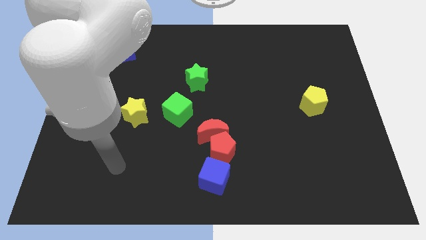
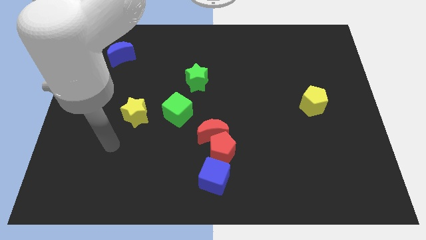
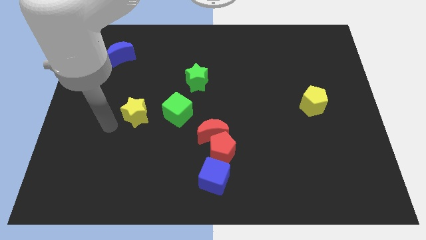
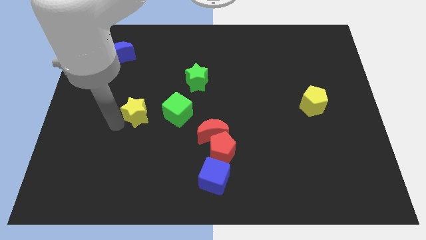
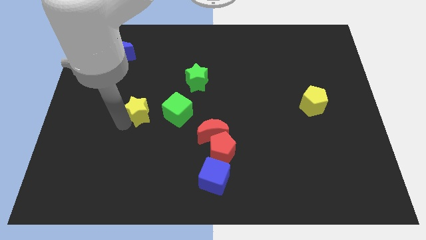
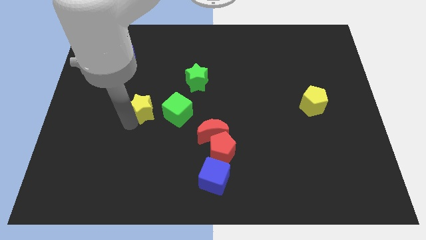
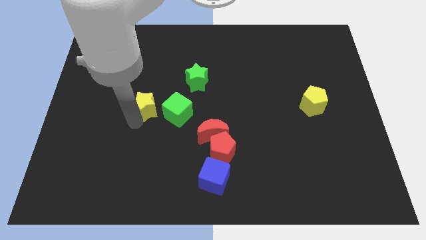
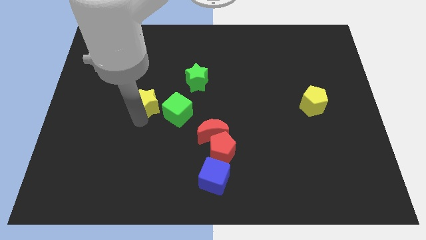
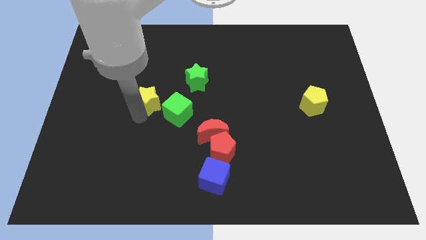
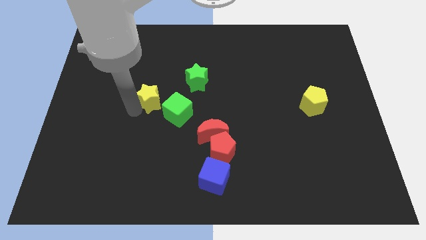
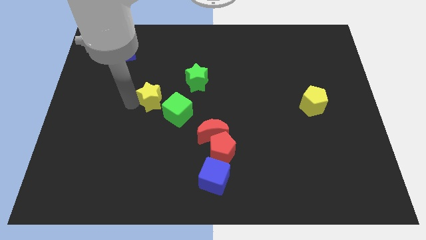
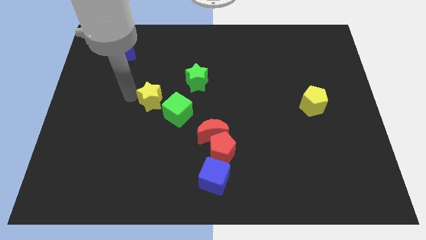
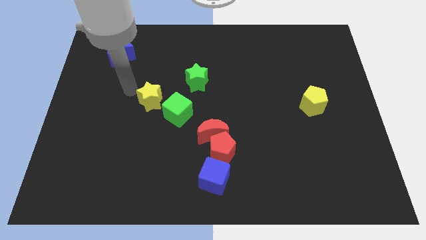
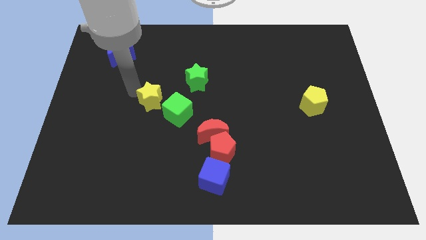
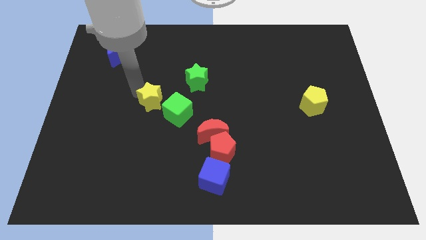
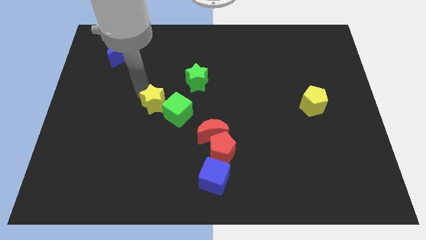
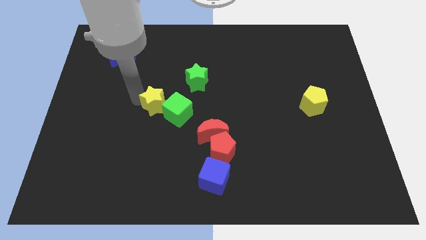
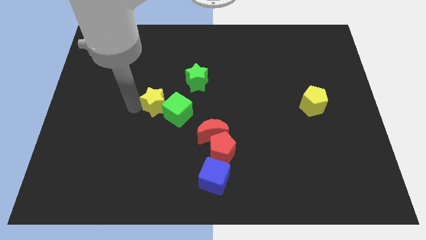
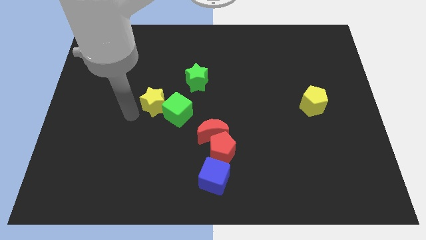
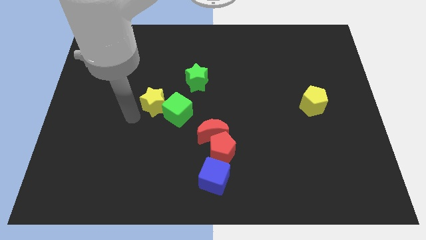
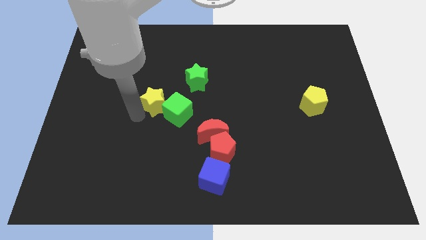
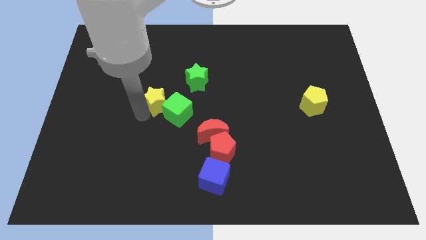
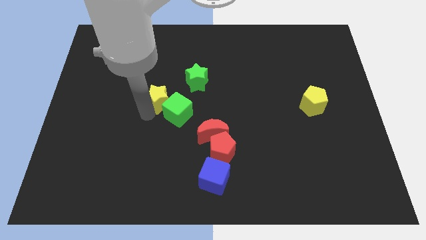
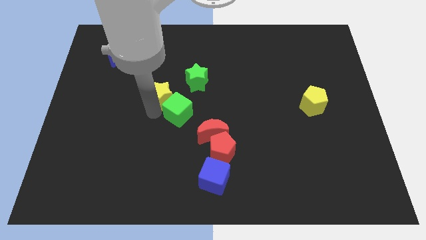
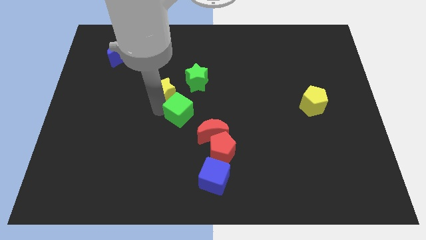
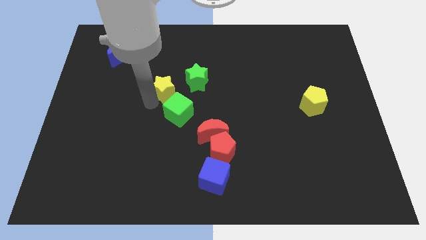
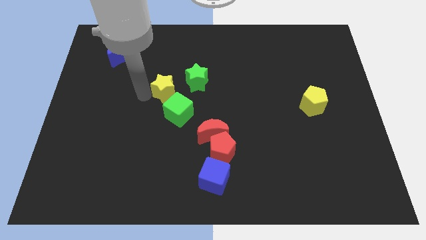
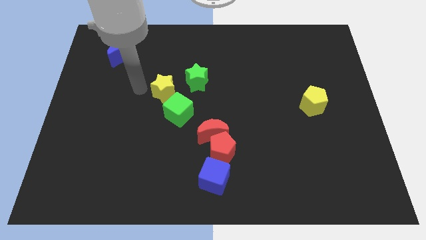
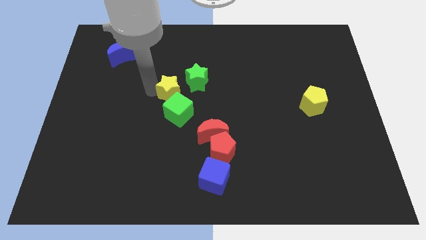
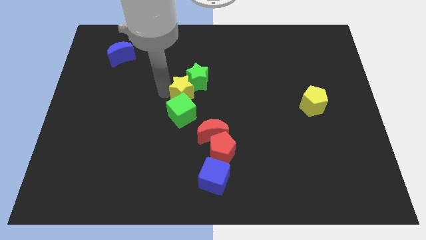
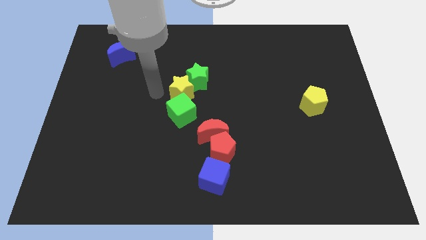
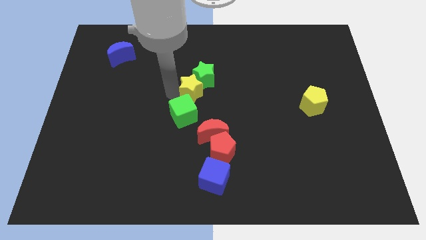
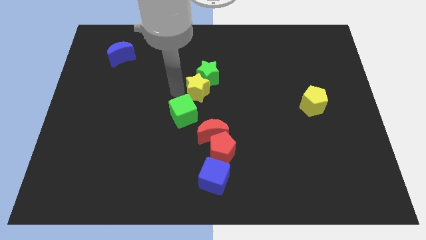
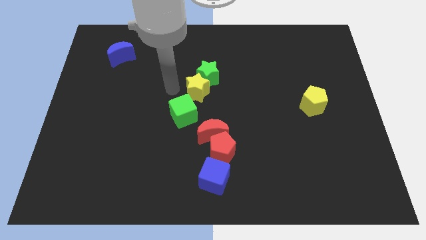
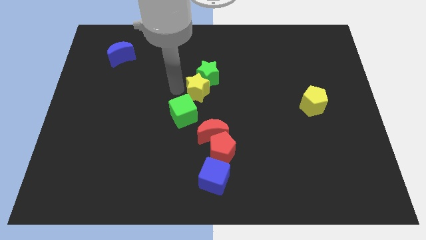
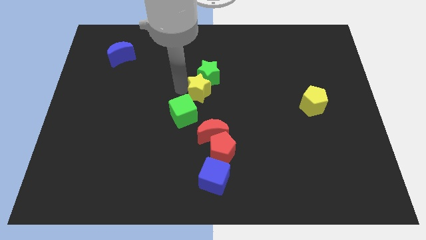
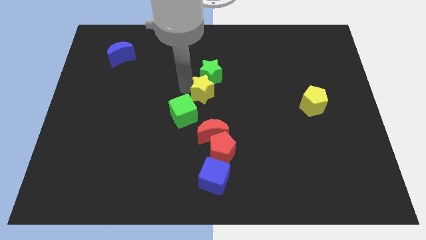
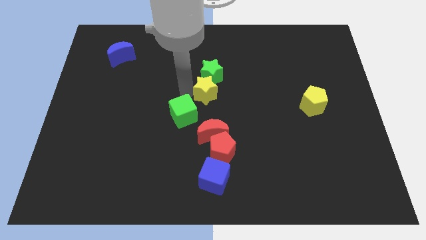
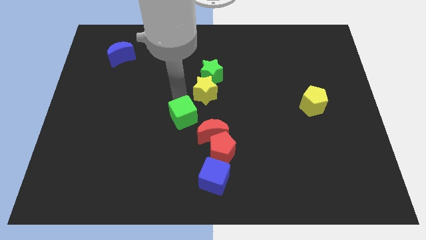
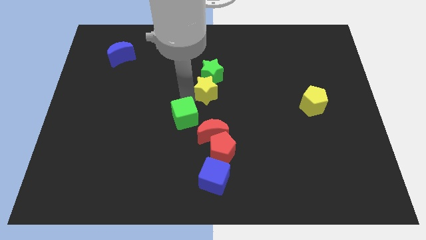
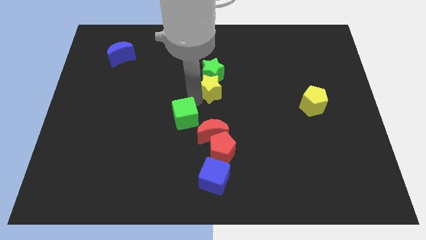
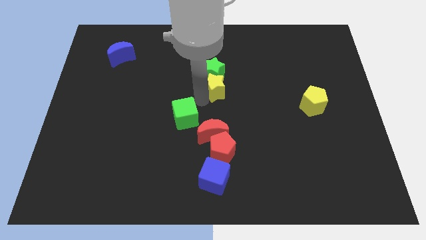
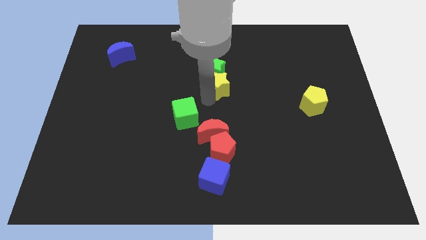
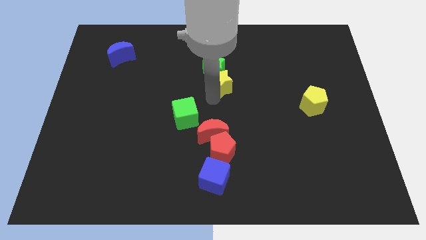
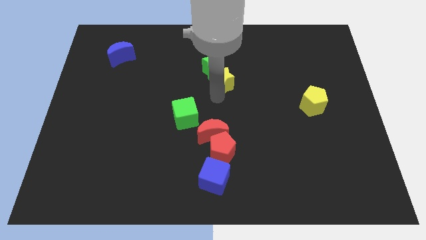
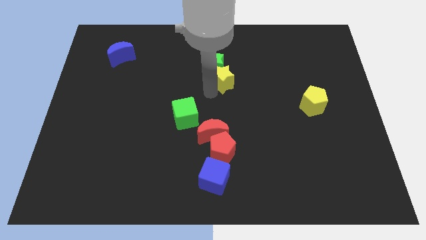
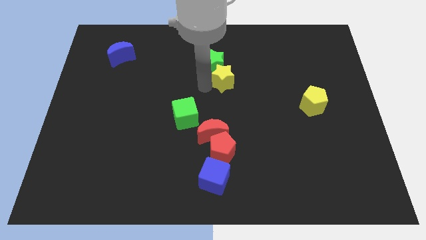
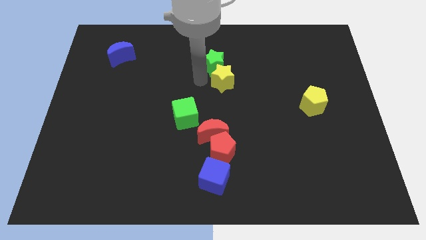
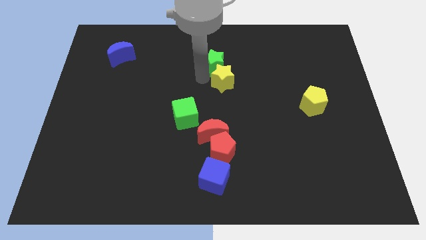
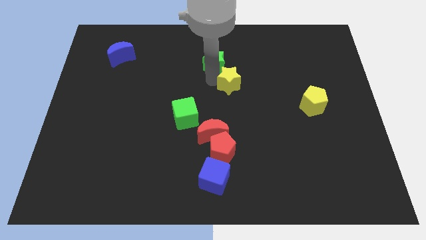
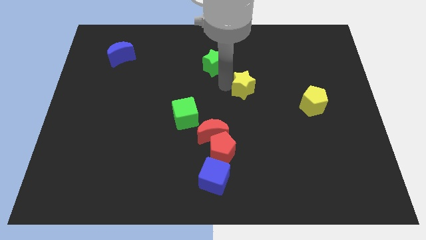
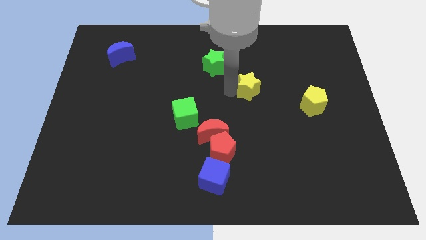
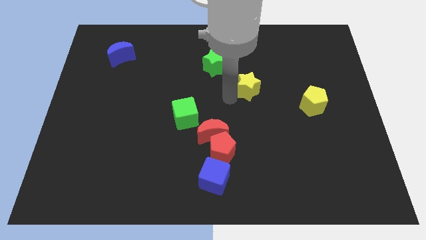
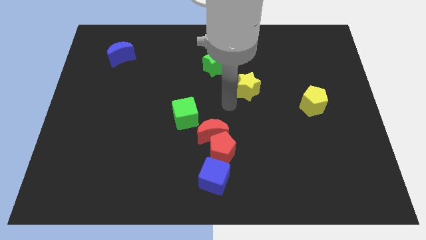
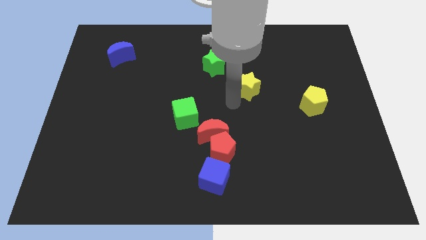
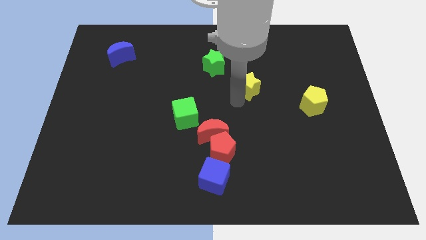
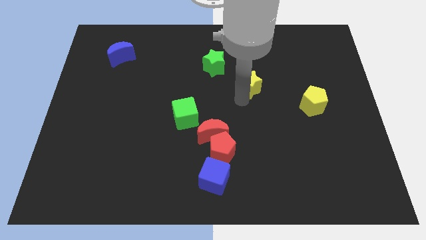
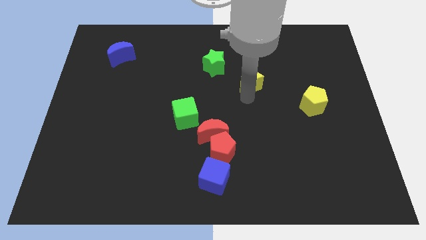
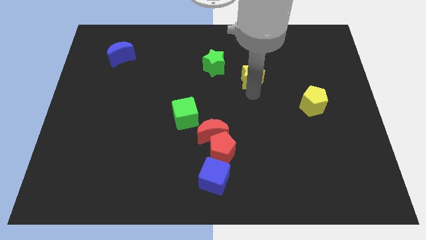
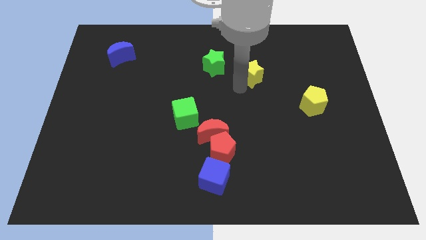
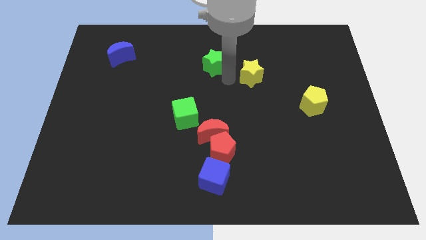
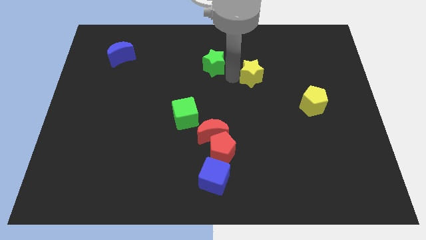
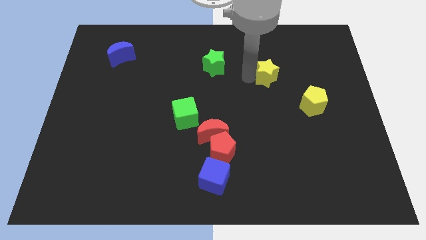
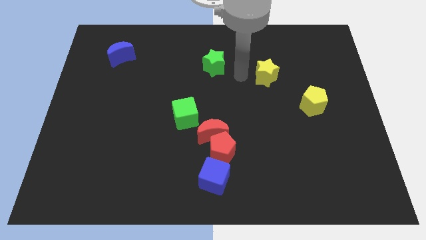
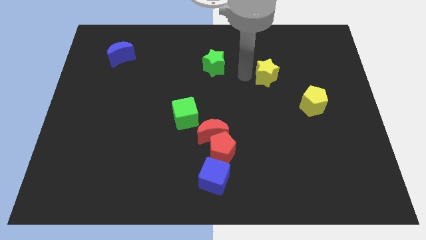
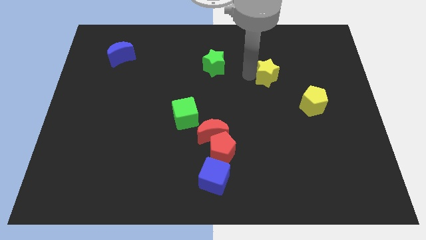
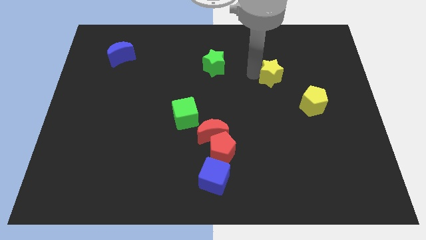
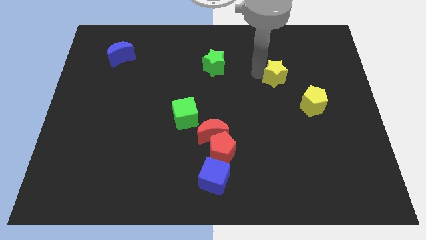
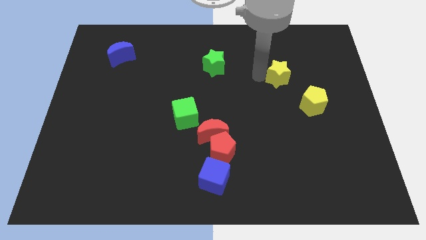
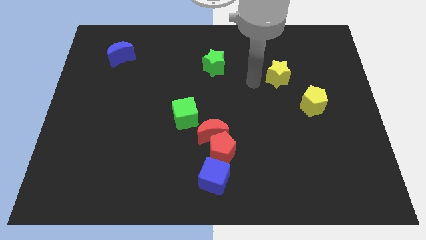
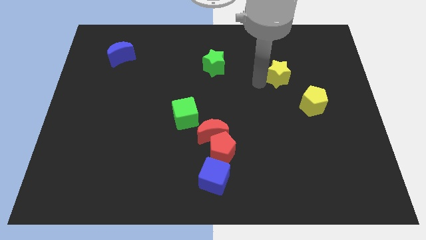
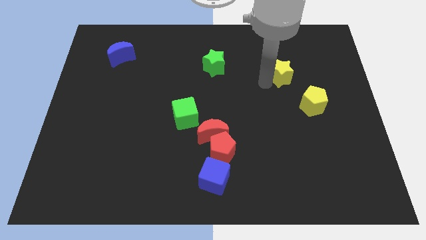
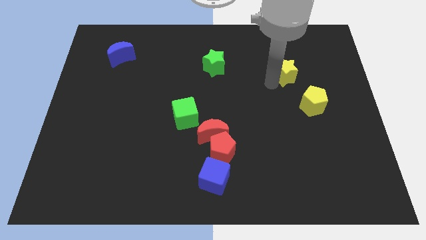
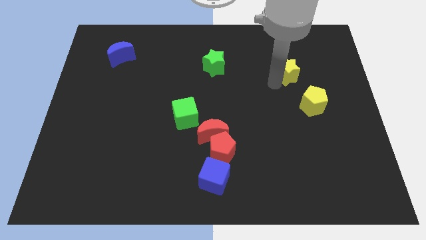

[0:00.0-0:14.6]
move the yellow star to the top side of the yellow pentagon
